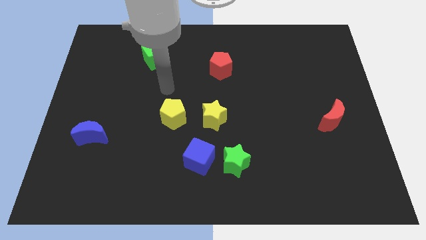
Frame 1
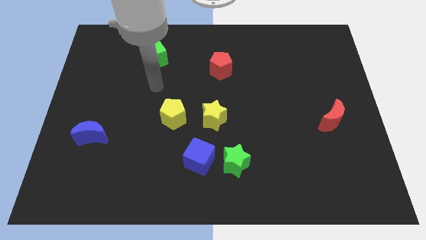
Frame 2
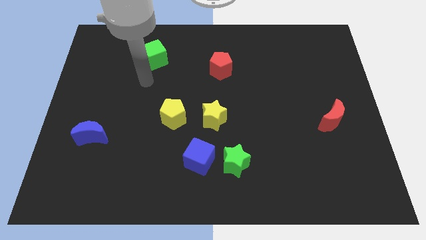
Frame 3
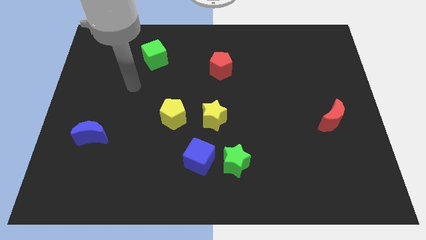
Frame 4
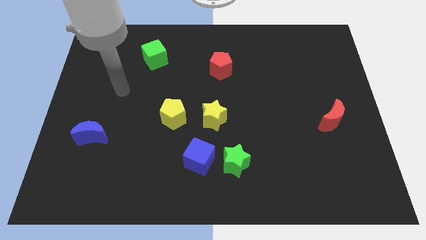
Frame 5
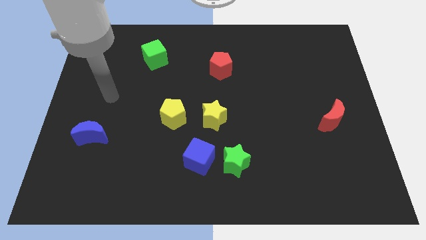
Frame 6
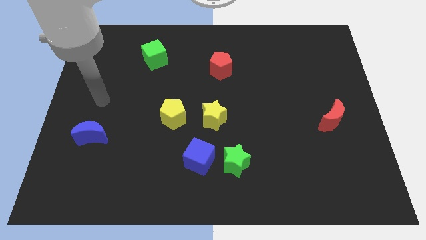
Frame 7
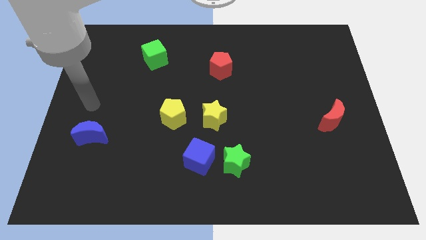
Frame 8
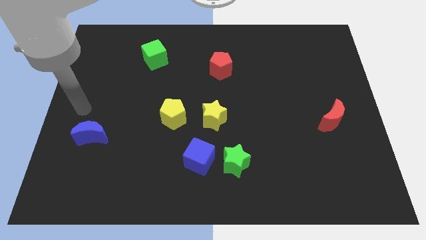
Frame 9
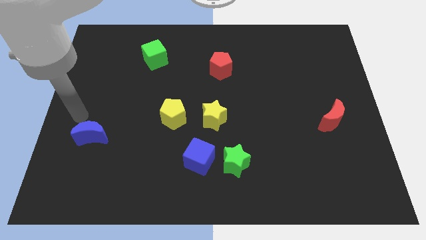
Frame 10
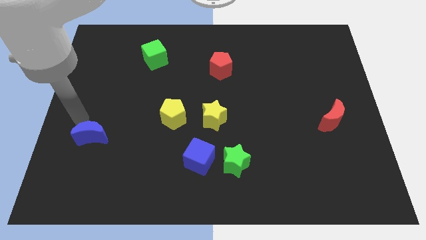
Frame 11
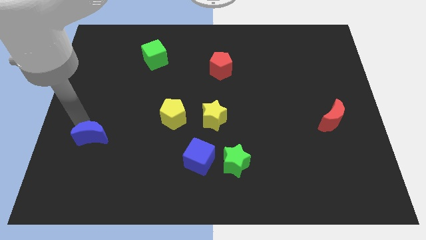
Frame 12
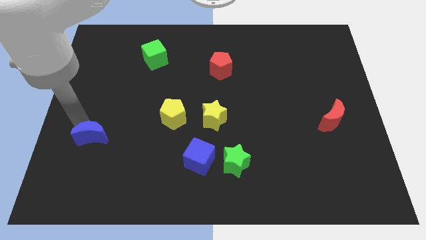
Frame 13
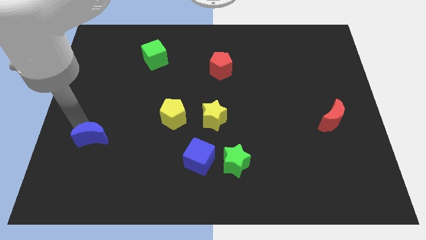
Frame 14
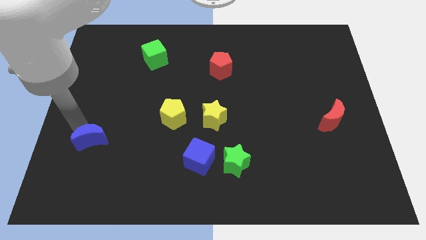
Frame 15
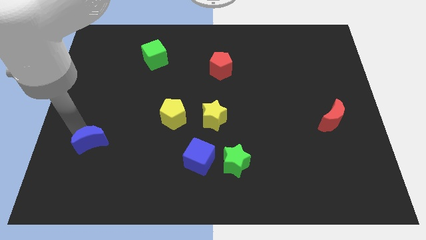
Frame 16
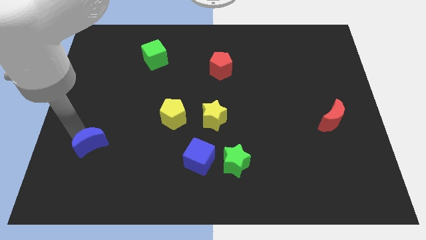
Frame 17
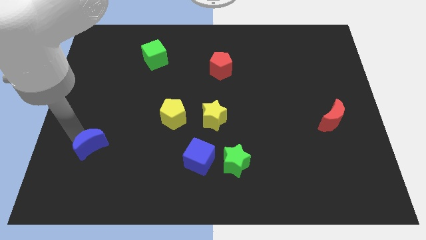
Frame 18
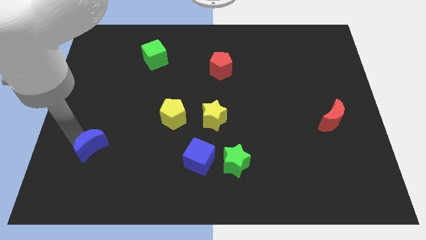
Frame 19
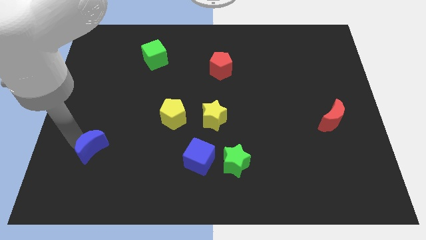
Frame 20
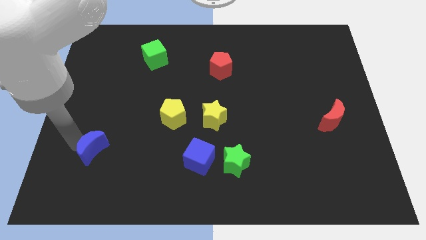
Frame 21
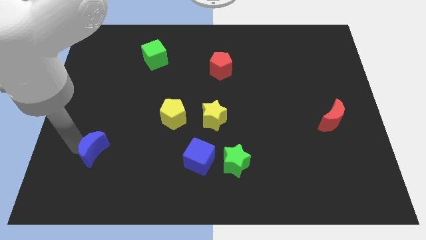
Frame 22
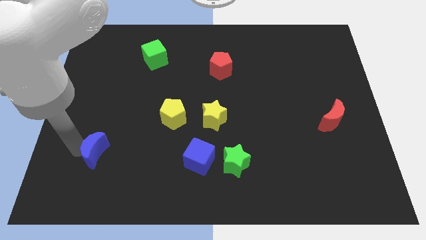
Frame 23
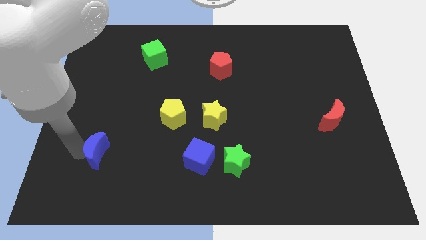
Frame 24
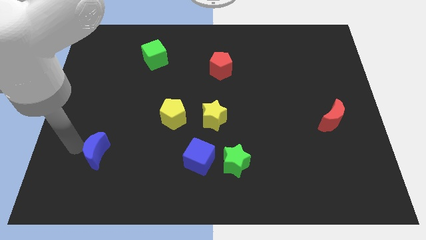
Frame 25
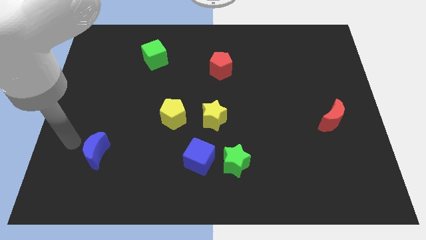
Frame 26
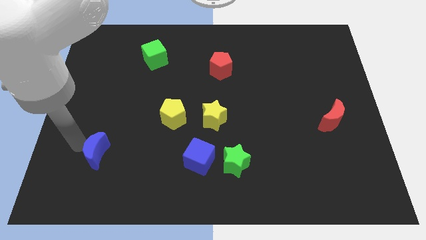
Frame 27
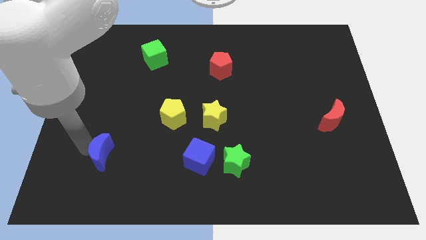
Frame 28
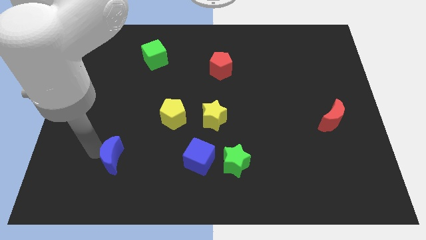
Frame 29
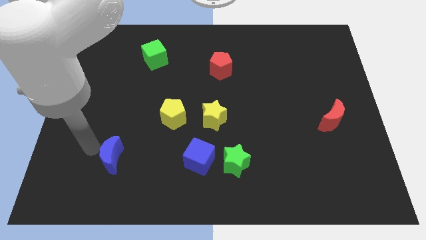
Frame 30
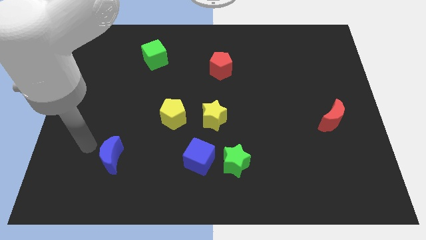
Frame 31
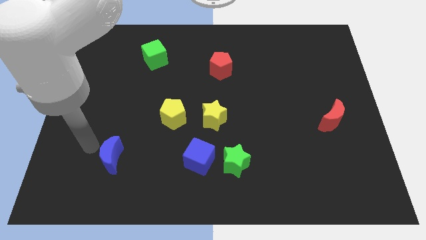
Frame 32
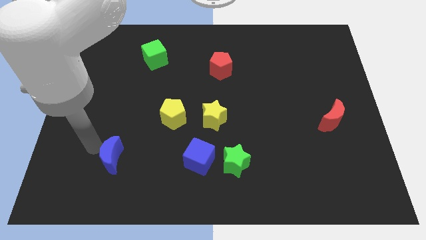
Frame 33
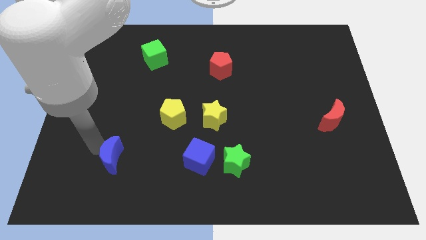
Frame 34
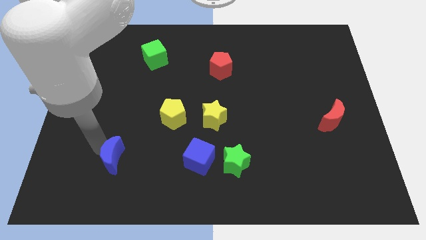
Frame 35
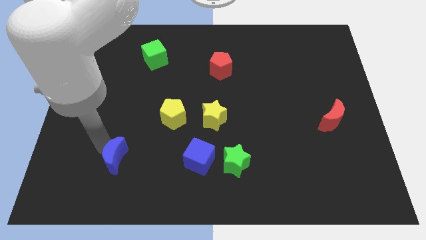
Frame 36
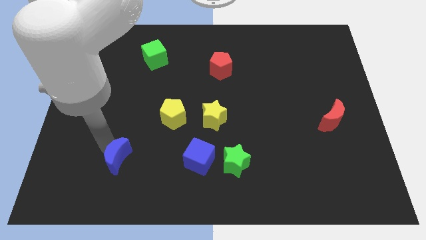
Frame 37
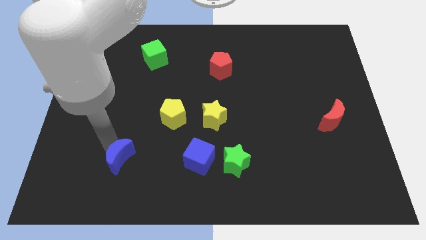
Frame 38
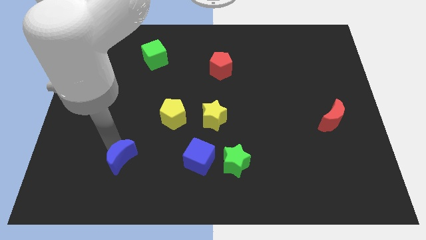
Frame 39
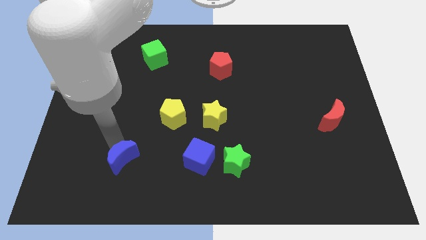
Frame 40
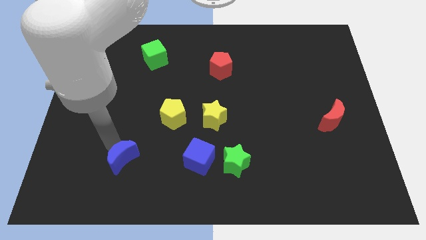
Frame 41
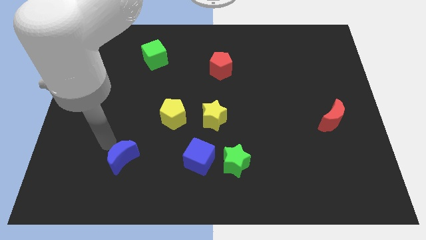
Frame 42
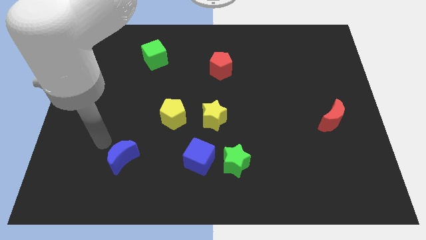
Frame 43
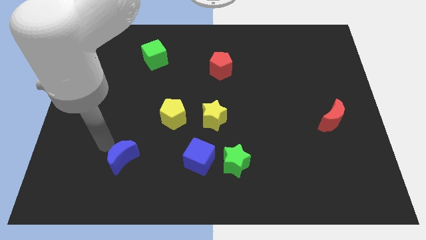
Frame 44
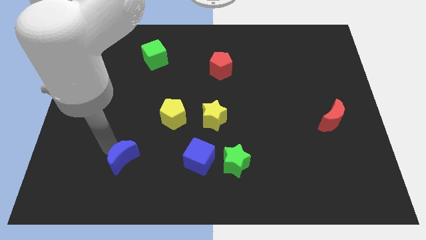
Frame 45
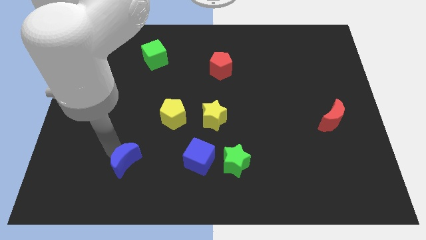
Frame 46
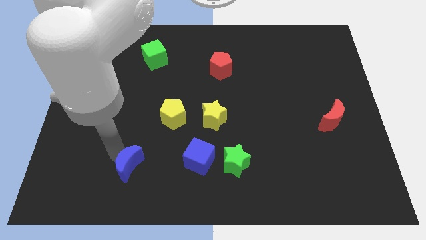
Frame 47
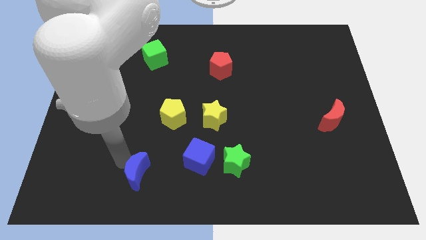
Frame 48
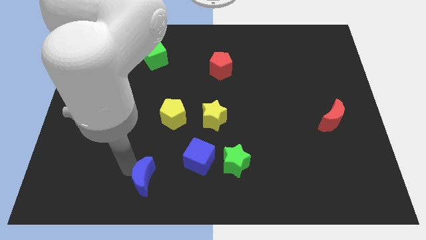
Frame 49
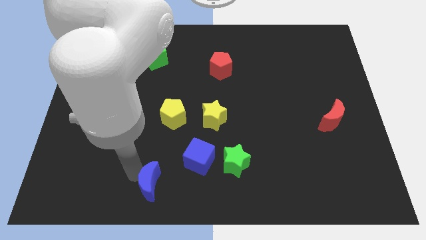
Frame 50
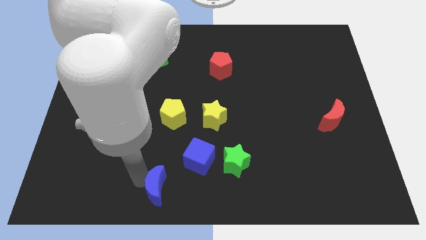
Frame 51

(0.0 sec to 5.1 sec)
put the blue moon to the bottom side

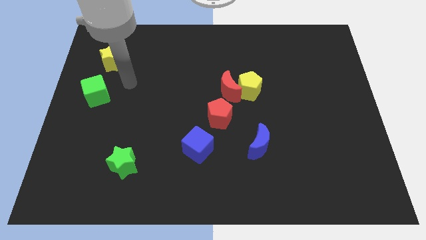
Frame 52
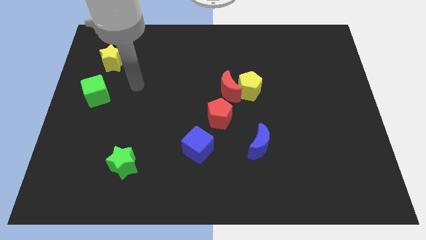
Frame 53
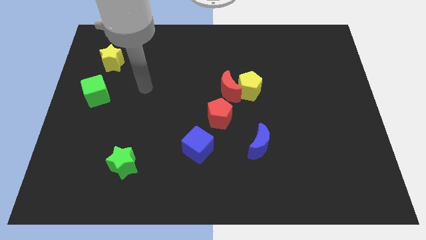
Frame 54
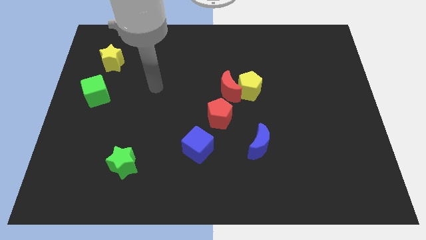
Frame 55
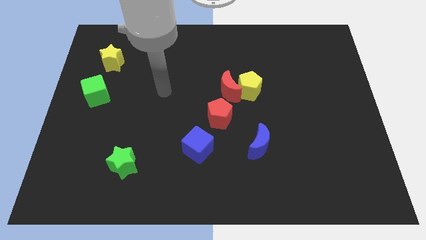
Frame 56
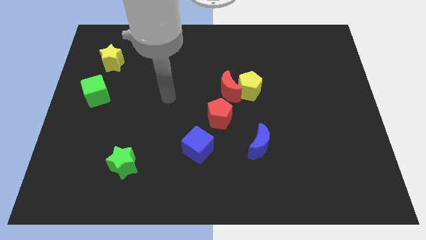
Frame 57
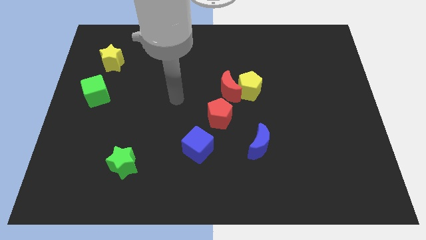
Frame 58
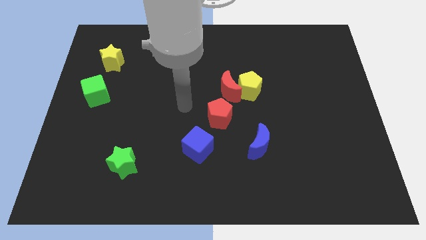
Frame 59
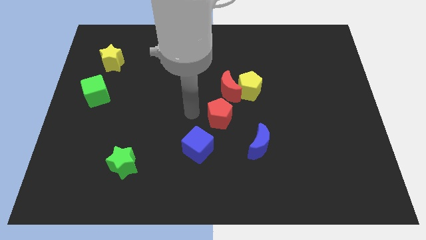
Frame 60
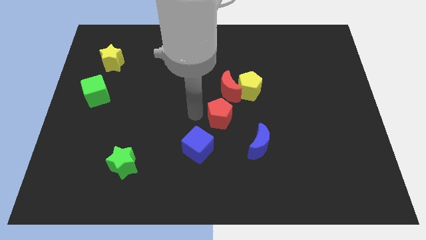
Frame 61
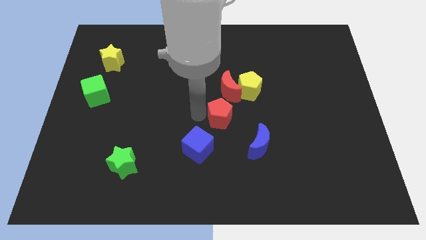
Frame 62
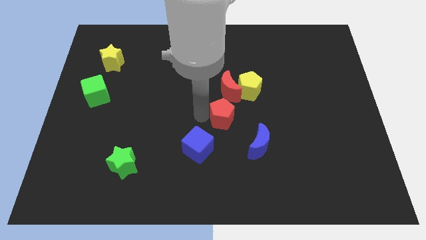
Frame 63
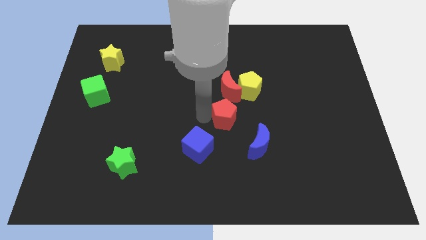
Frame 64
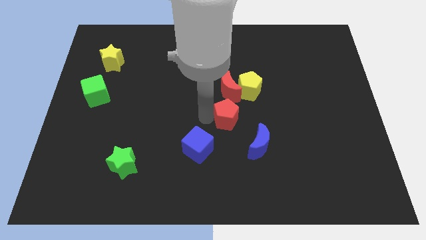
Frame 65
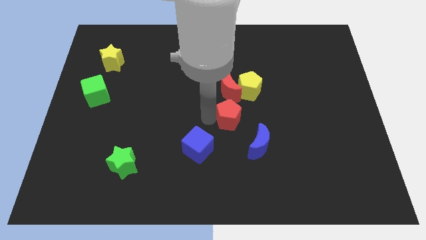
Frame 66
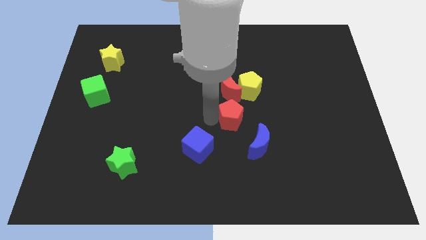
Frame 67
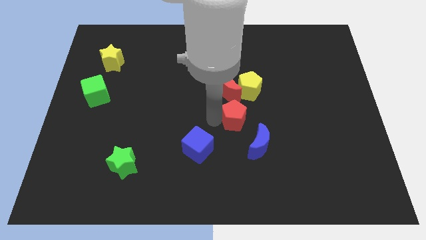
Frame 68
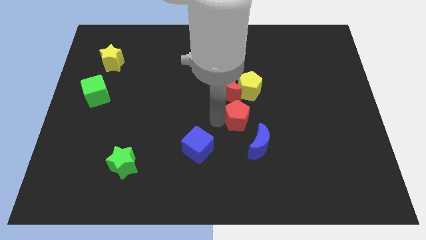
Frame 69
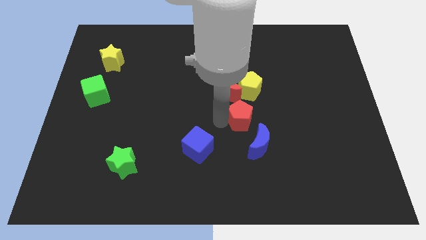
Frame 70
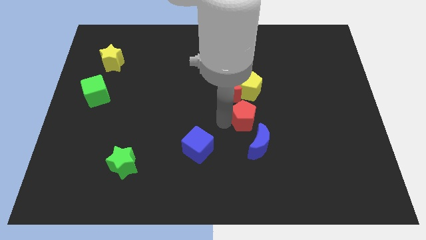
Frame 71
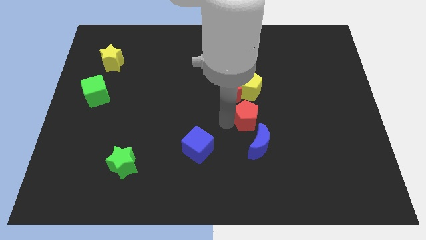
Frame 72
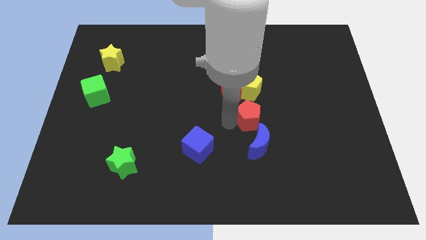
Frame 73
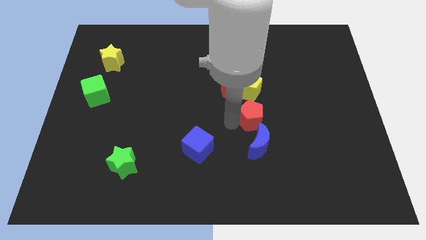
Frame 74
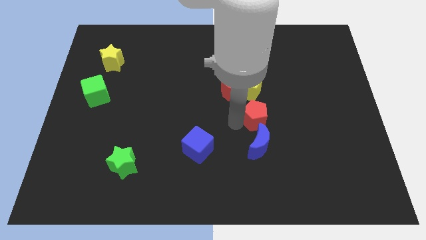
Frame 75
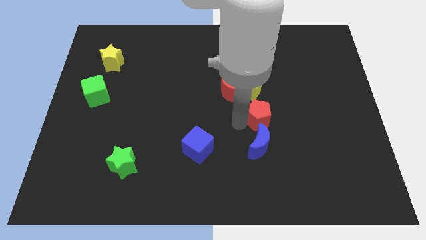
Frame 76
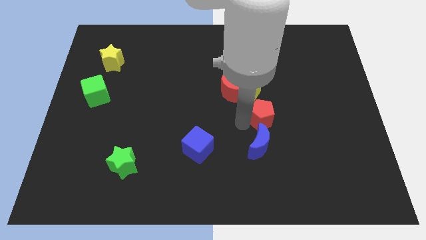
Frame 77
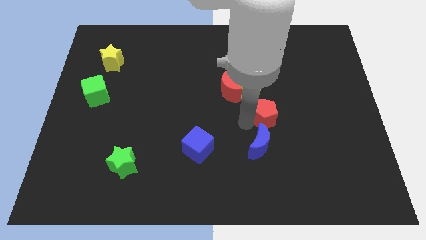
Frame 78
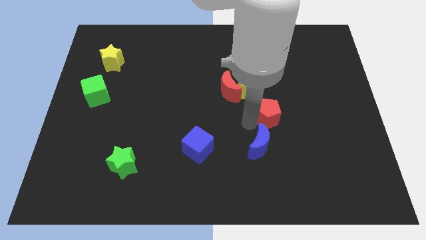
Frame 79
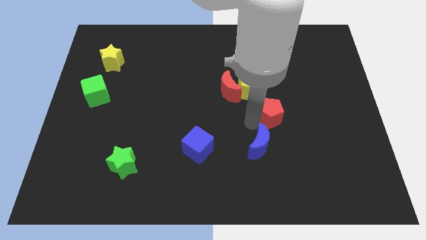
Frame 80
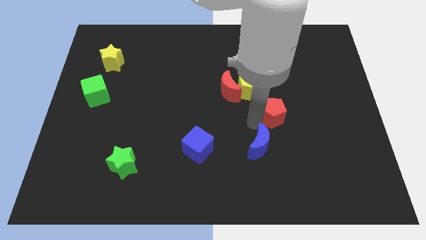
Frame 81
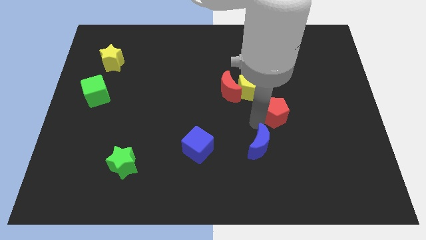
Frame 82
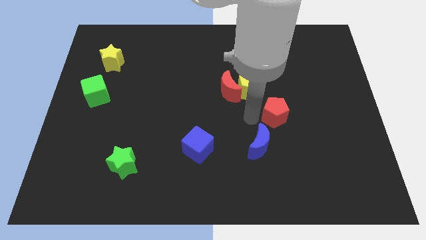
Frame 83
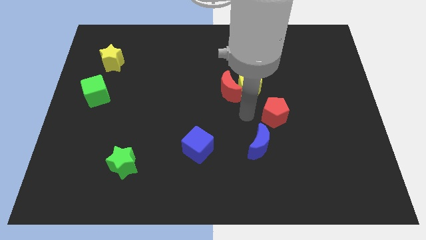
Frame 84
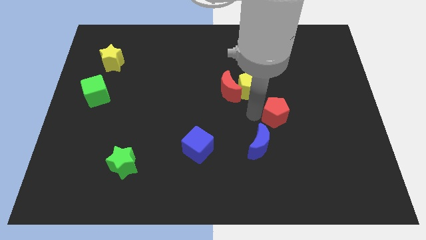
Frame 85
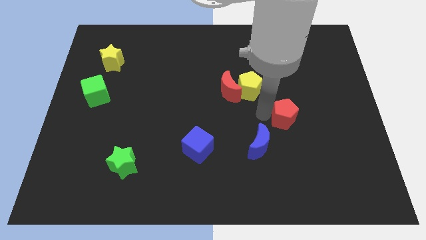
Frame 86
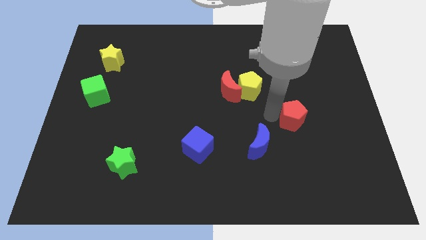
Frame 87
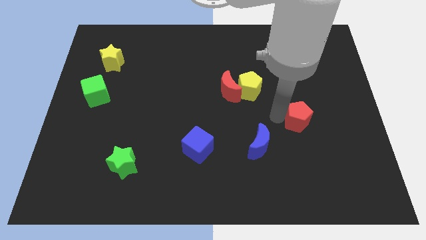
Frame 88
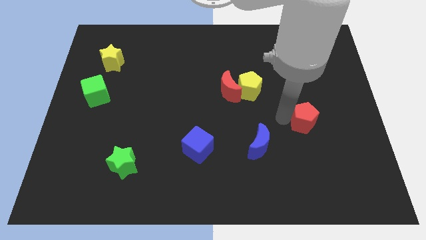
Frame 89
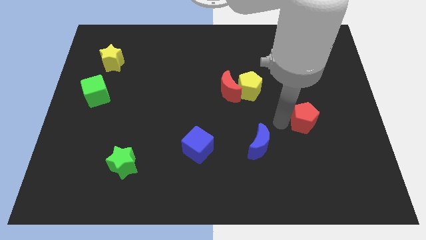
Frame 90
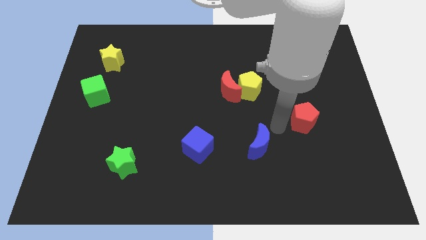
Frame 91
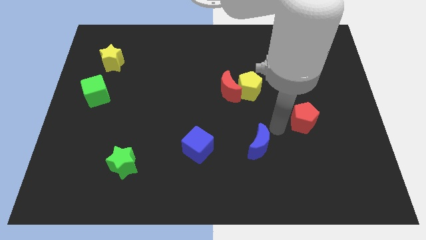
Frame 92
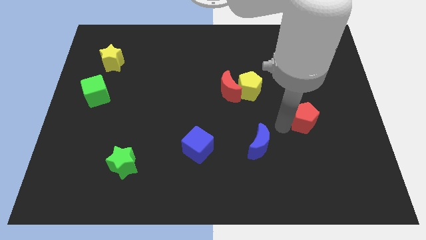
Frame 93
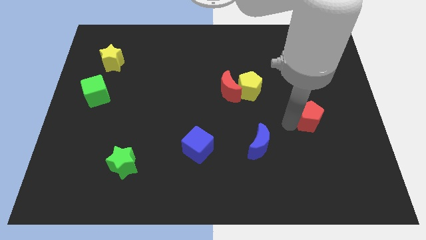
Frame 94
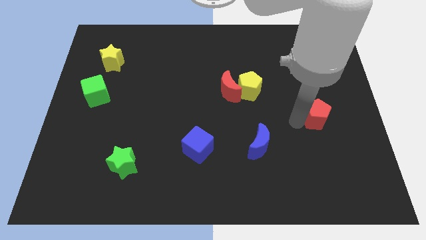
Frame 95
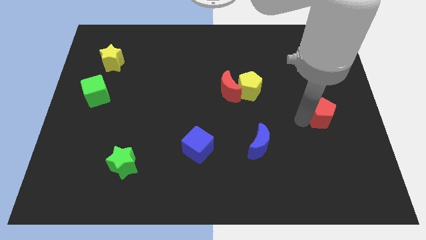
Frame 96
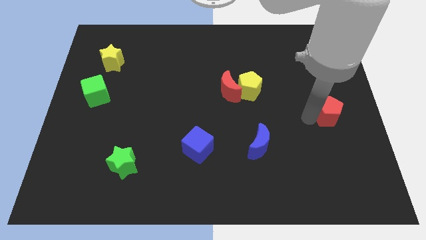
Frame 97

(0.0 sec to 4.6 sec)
put the red pentagon to the center right
